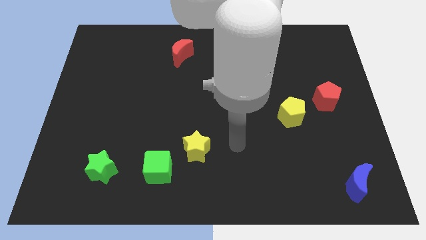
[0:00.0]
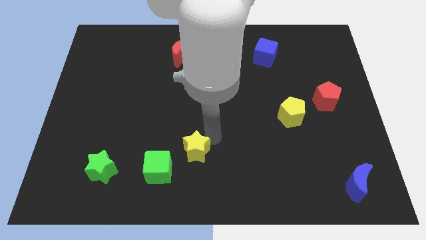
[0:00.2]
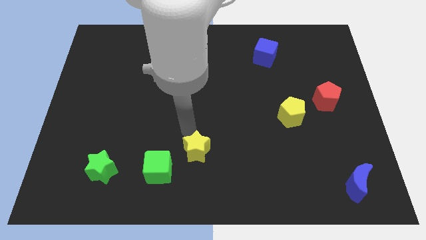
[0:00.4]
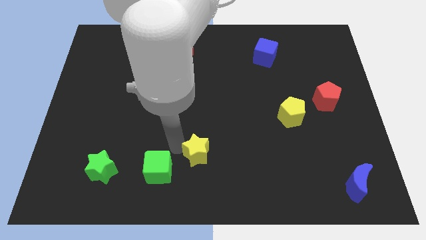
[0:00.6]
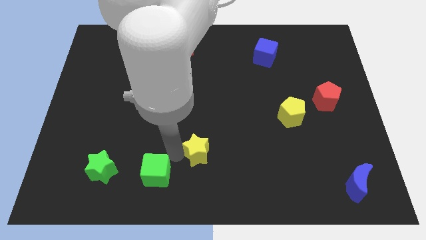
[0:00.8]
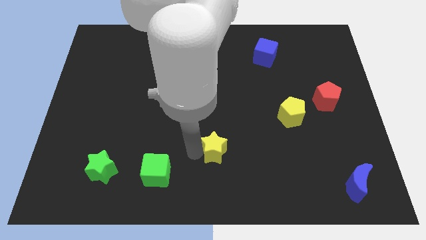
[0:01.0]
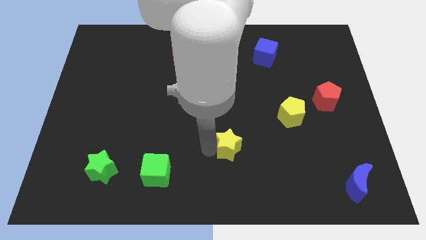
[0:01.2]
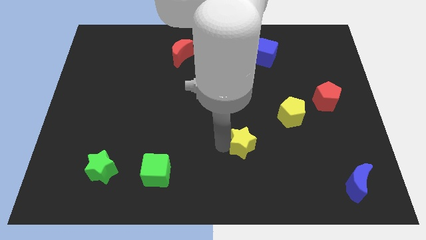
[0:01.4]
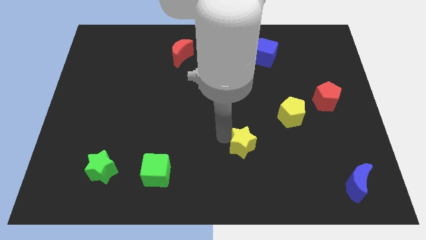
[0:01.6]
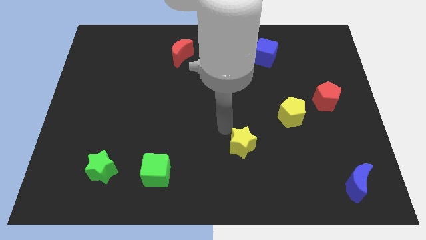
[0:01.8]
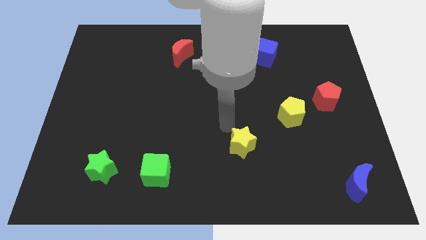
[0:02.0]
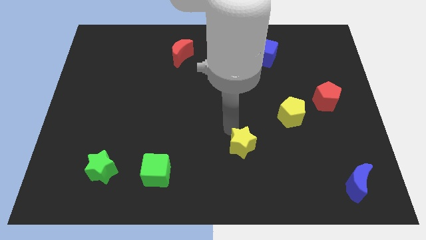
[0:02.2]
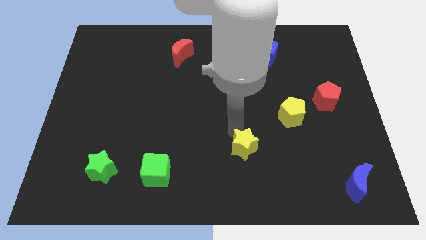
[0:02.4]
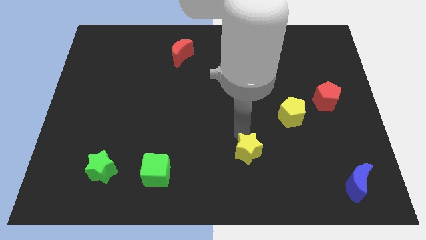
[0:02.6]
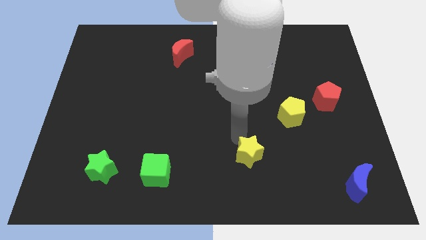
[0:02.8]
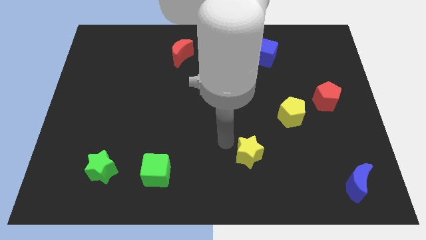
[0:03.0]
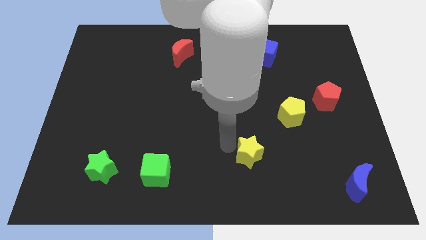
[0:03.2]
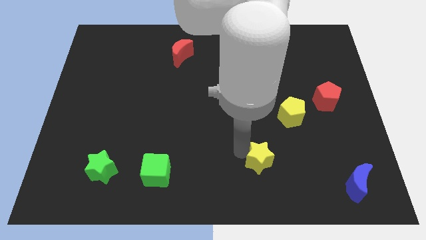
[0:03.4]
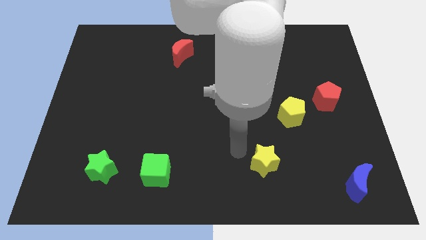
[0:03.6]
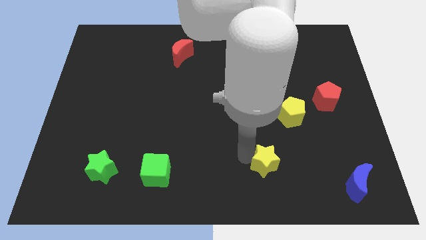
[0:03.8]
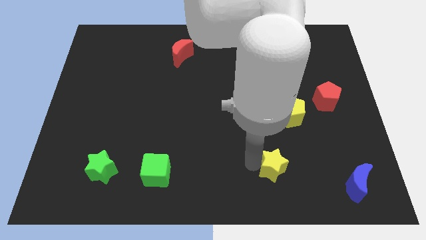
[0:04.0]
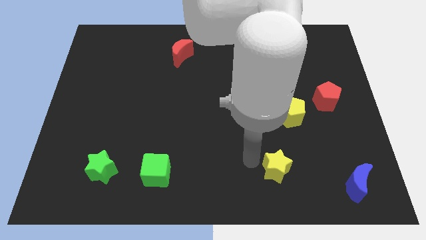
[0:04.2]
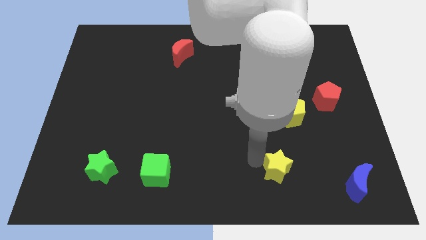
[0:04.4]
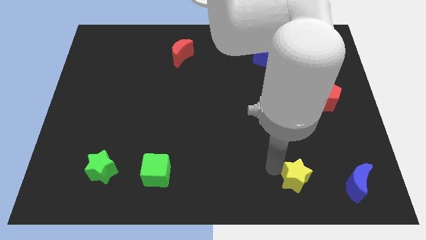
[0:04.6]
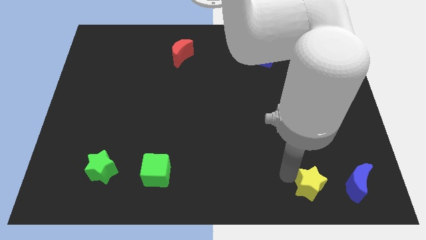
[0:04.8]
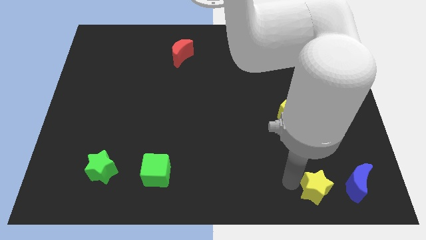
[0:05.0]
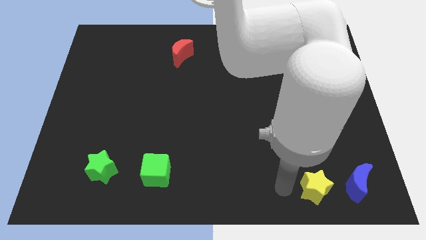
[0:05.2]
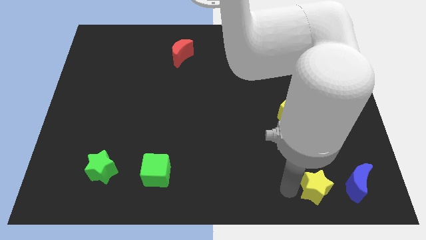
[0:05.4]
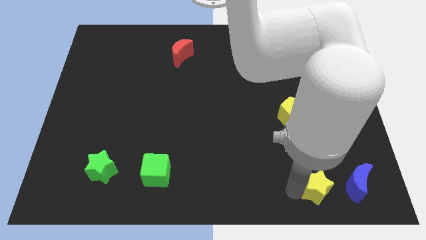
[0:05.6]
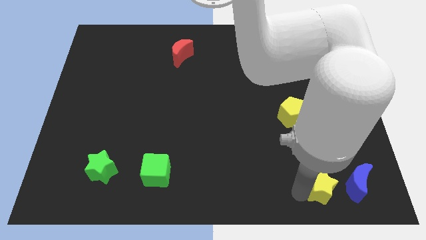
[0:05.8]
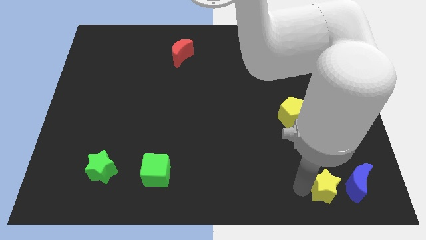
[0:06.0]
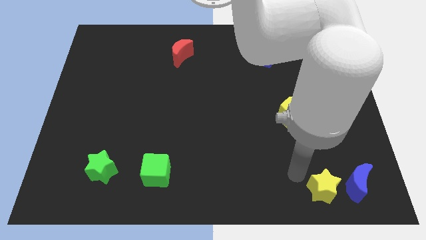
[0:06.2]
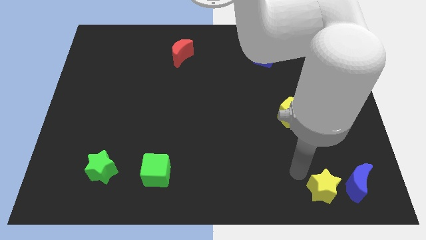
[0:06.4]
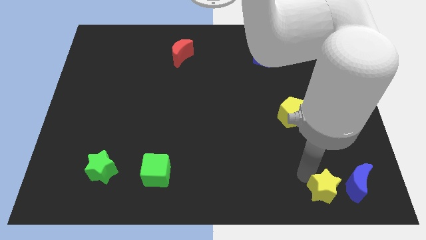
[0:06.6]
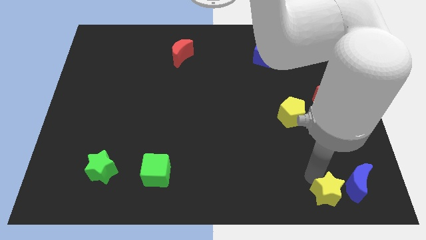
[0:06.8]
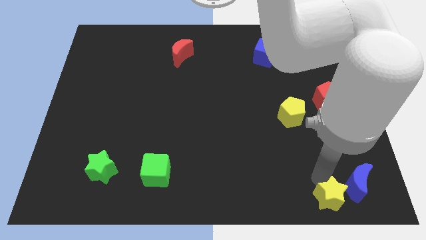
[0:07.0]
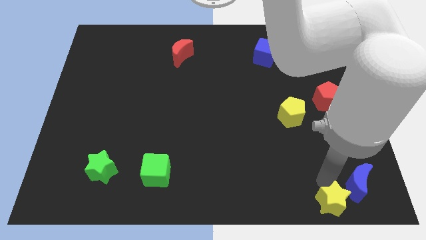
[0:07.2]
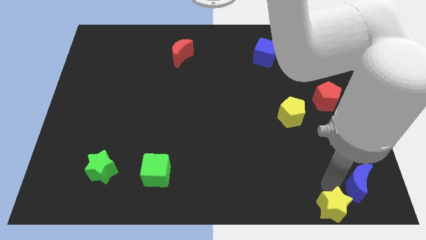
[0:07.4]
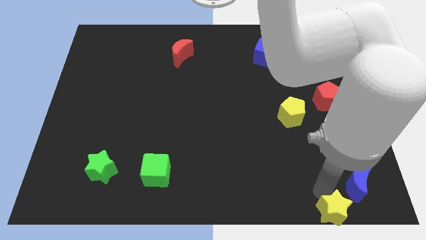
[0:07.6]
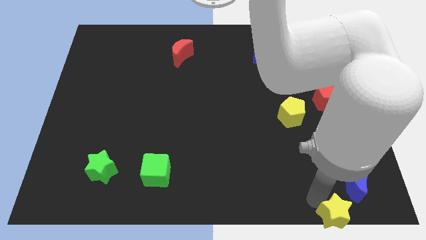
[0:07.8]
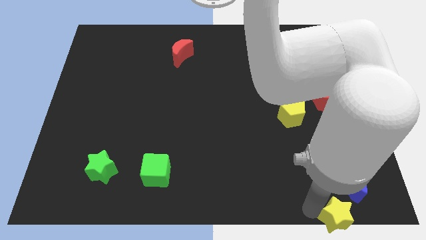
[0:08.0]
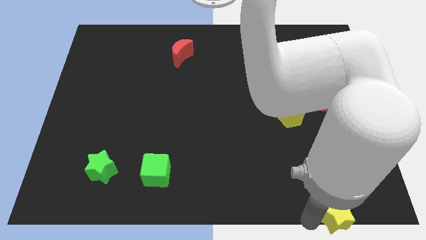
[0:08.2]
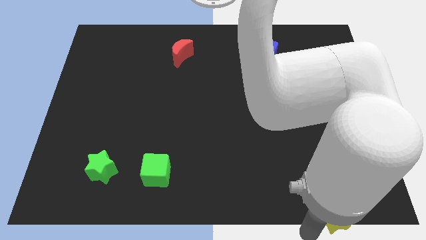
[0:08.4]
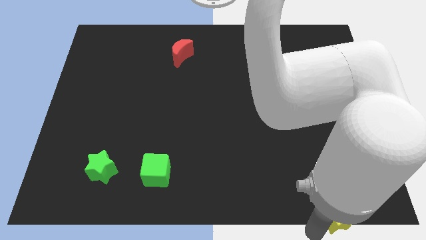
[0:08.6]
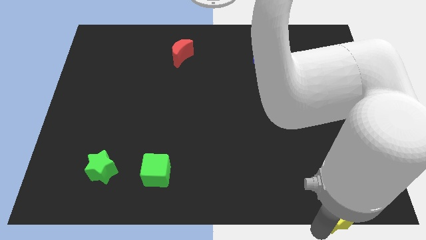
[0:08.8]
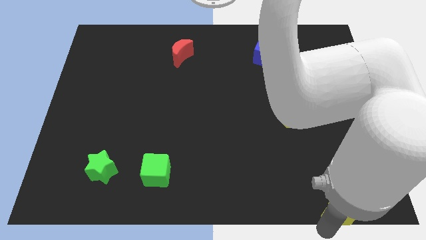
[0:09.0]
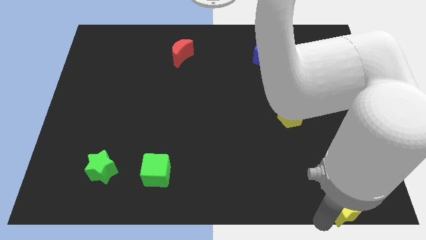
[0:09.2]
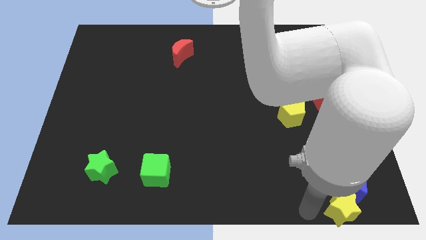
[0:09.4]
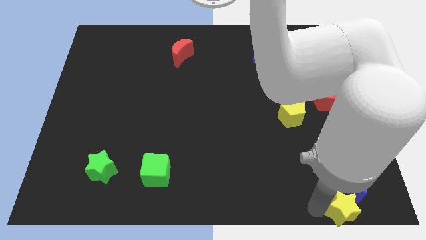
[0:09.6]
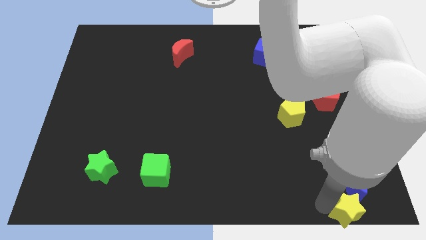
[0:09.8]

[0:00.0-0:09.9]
slide the yellow star to the bottom right

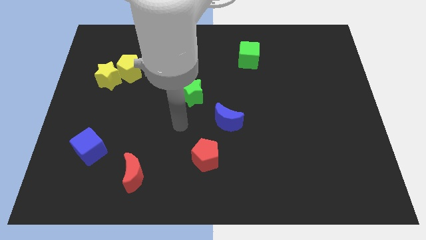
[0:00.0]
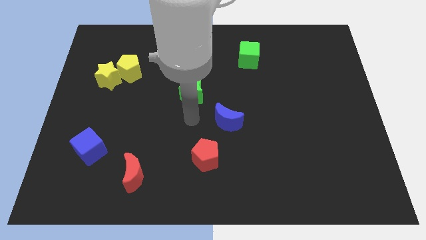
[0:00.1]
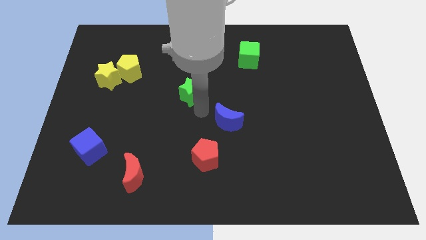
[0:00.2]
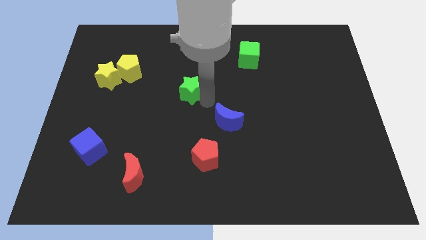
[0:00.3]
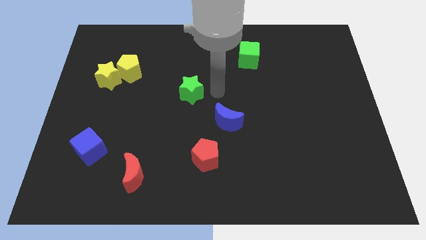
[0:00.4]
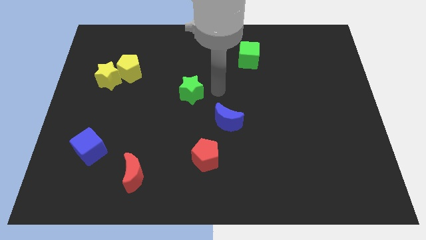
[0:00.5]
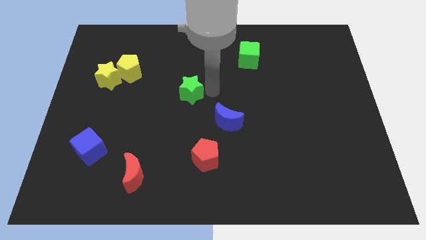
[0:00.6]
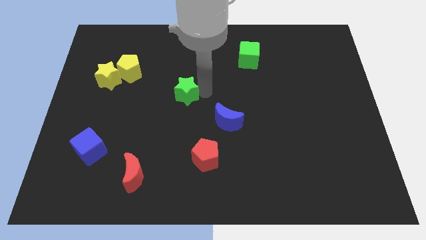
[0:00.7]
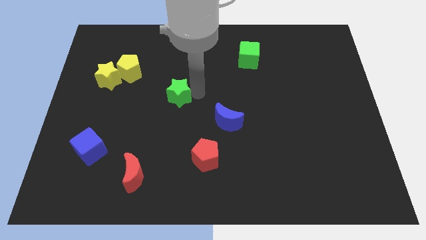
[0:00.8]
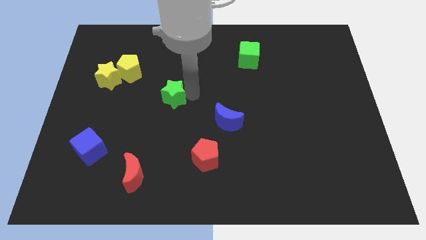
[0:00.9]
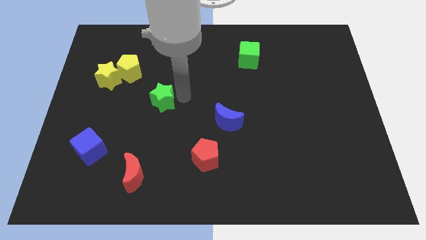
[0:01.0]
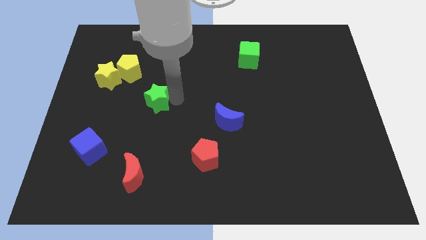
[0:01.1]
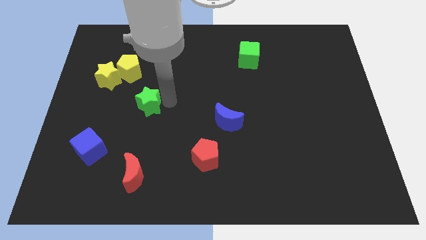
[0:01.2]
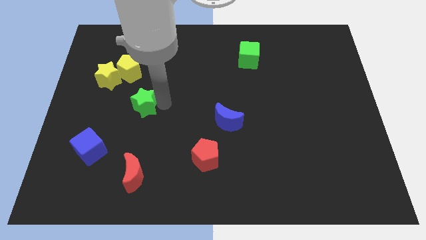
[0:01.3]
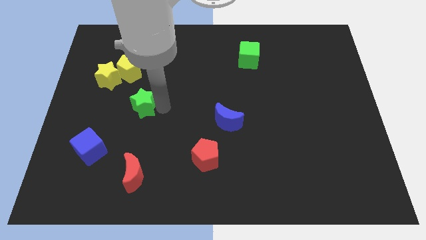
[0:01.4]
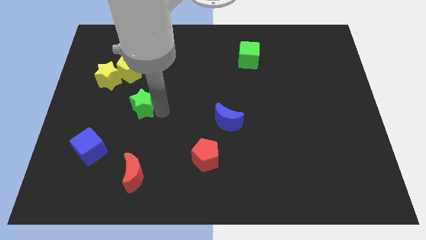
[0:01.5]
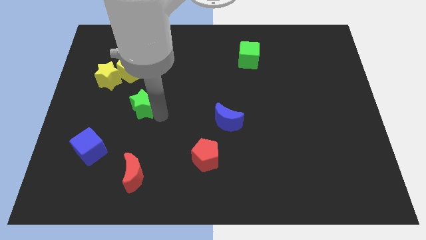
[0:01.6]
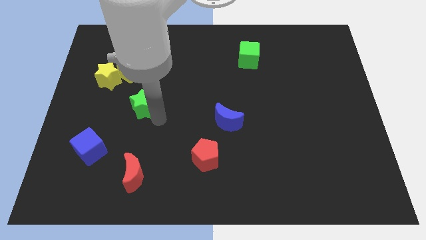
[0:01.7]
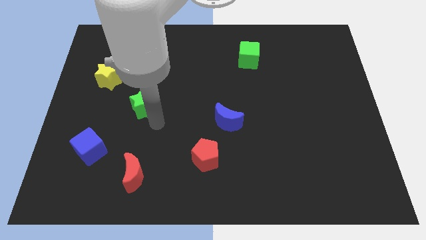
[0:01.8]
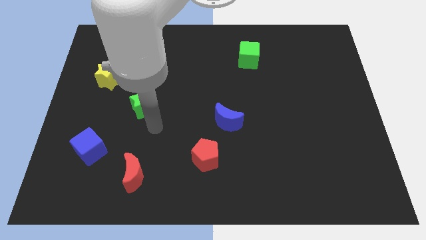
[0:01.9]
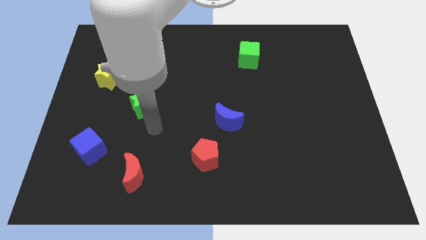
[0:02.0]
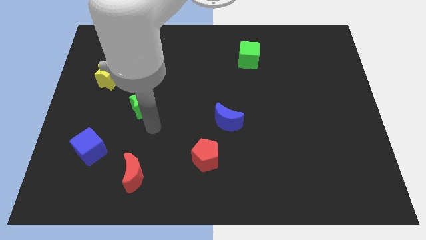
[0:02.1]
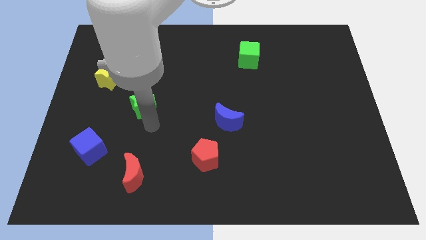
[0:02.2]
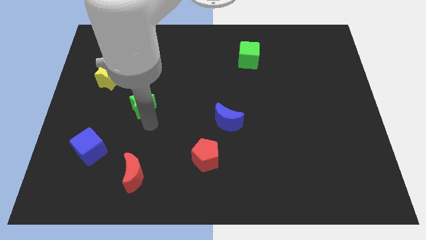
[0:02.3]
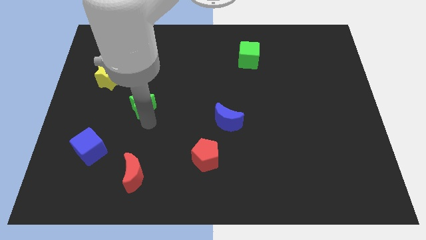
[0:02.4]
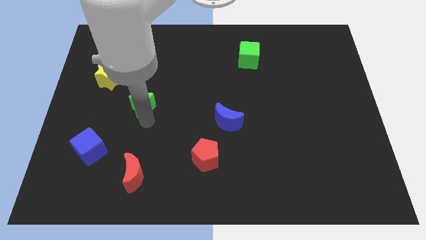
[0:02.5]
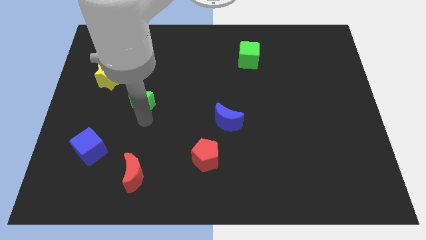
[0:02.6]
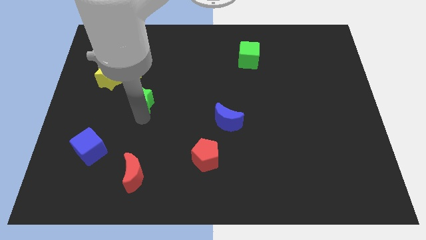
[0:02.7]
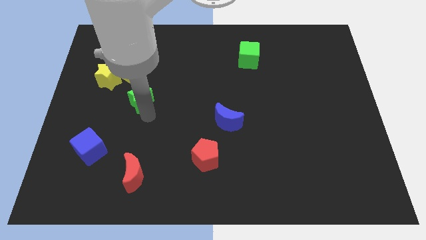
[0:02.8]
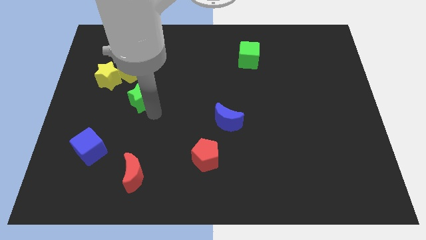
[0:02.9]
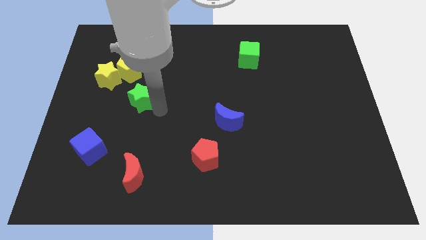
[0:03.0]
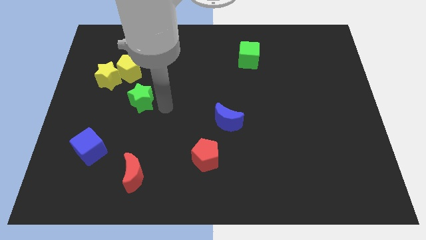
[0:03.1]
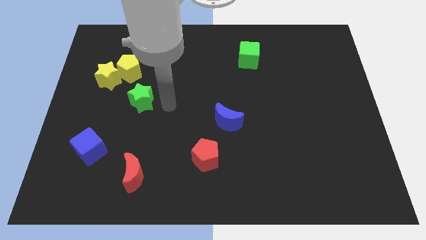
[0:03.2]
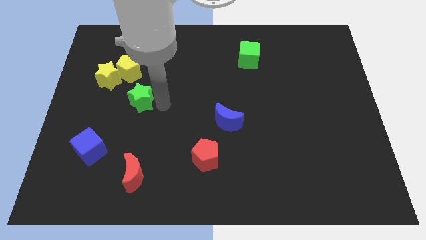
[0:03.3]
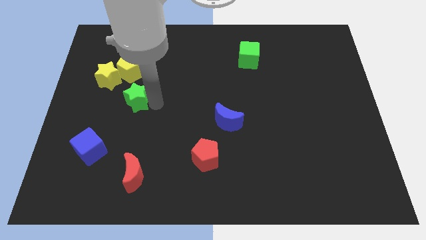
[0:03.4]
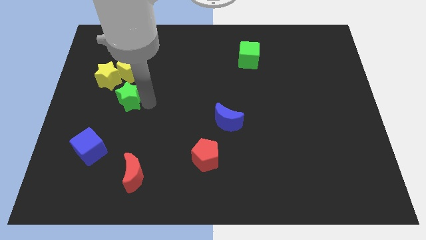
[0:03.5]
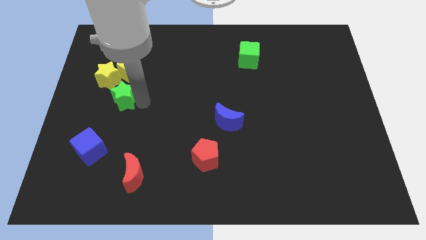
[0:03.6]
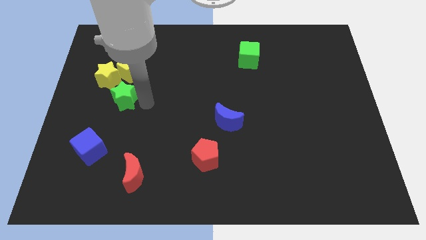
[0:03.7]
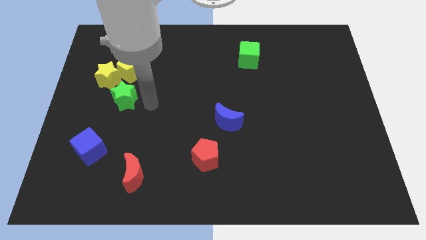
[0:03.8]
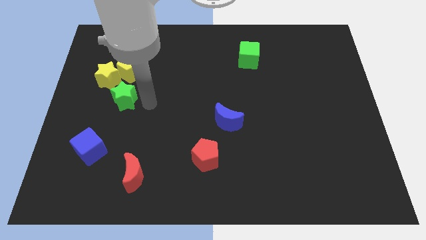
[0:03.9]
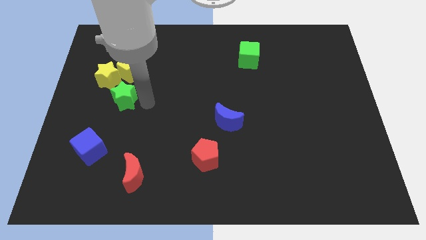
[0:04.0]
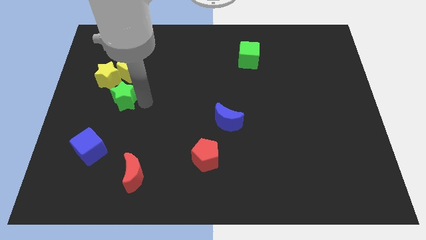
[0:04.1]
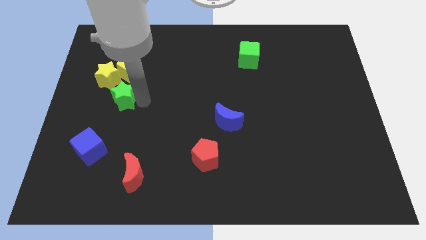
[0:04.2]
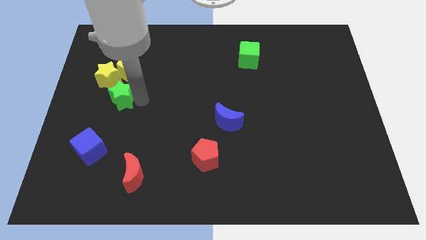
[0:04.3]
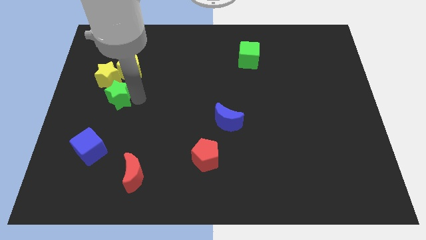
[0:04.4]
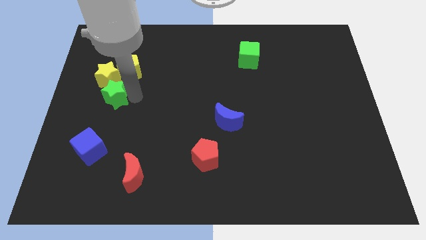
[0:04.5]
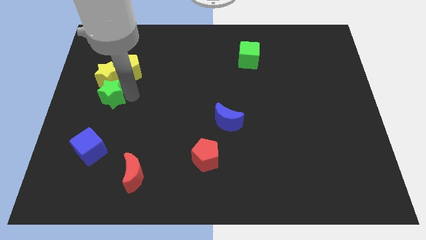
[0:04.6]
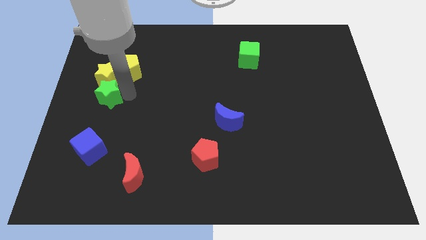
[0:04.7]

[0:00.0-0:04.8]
move the green star to the left side of the board
